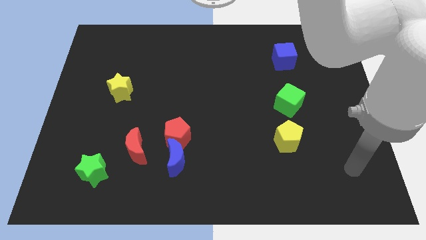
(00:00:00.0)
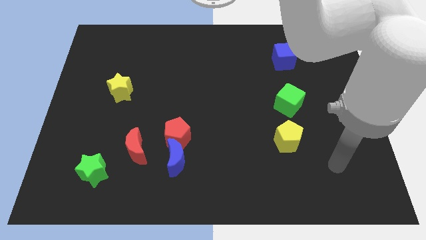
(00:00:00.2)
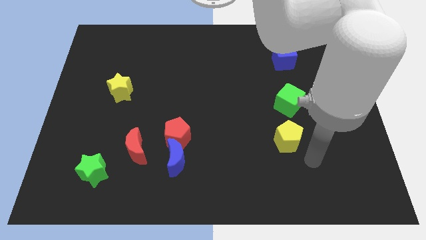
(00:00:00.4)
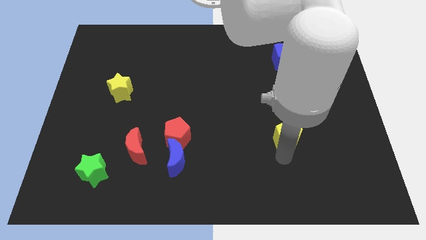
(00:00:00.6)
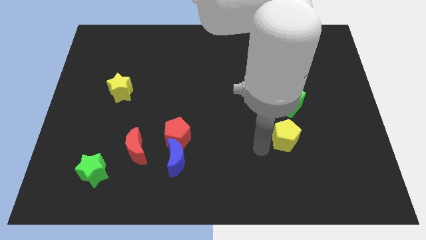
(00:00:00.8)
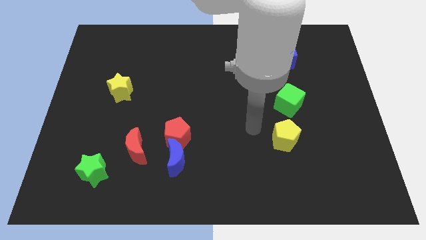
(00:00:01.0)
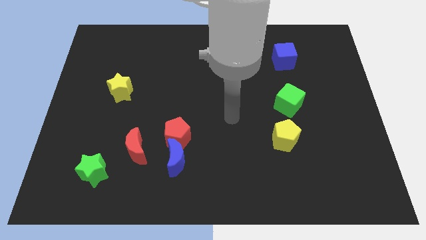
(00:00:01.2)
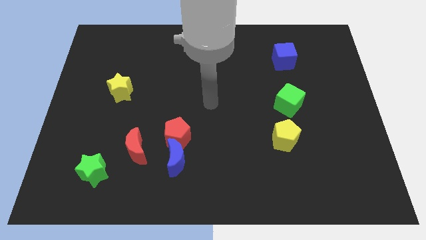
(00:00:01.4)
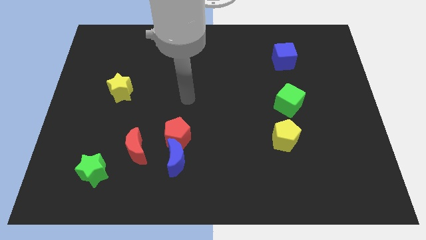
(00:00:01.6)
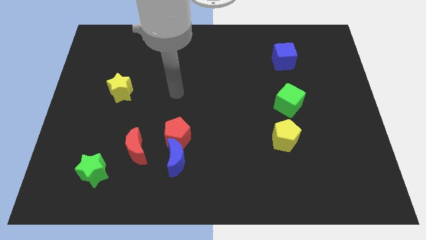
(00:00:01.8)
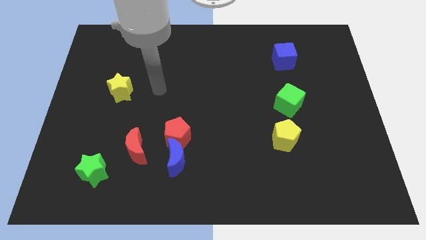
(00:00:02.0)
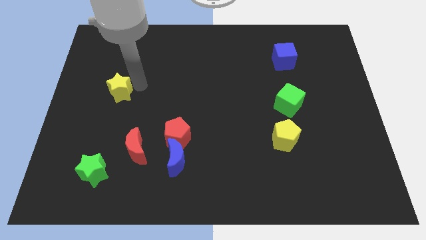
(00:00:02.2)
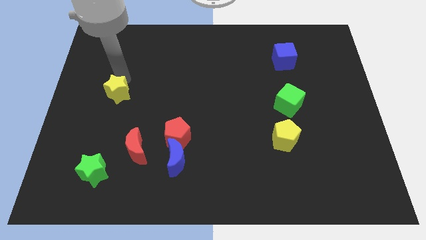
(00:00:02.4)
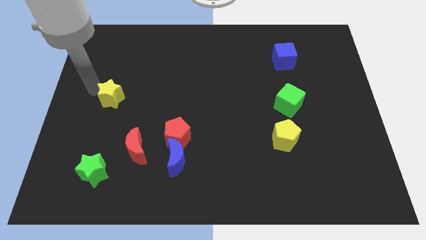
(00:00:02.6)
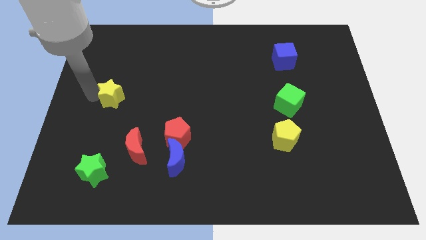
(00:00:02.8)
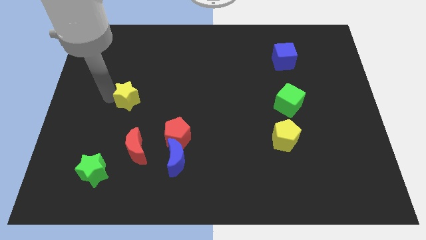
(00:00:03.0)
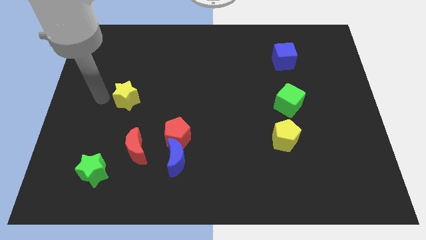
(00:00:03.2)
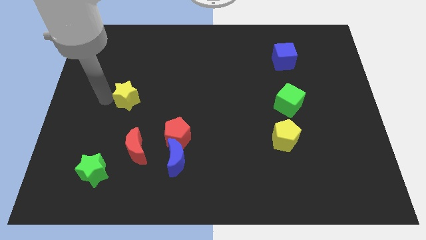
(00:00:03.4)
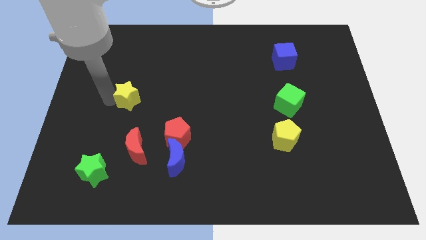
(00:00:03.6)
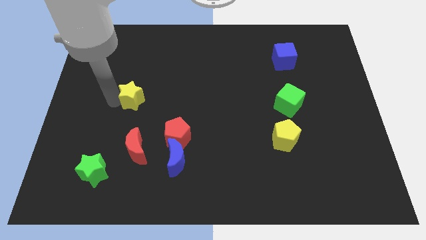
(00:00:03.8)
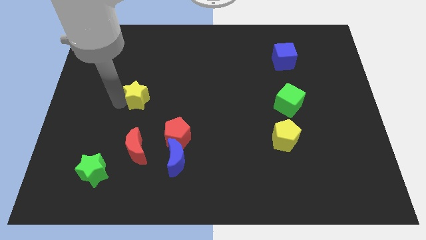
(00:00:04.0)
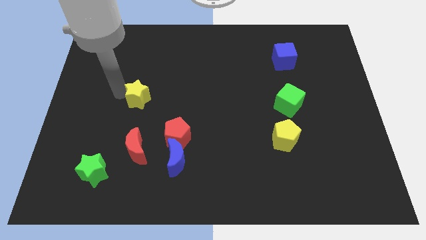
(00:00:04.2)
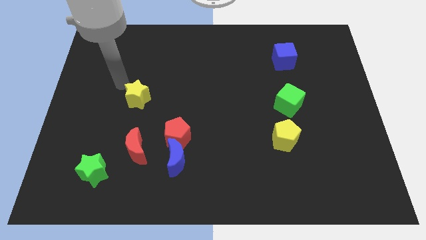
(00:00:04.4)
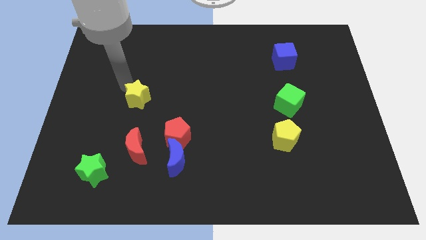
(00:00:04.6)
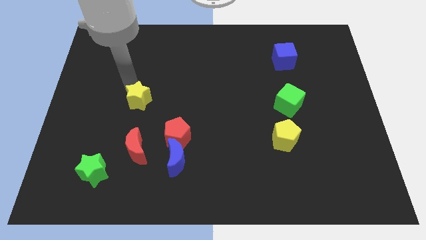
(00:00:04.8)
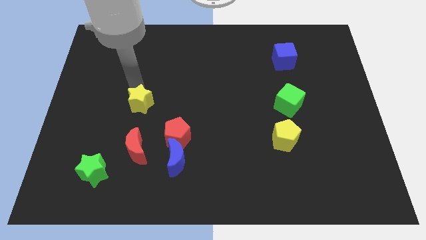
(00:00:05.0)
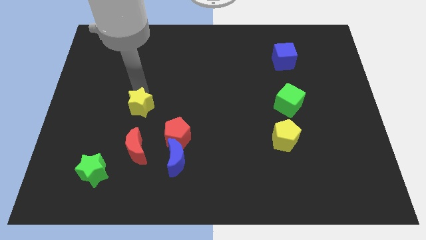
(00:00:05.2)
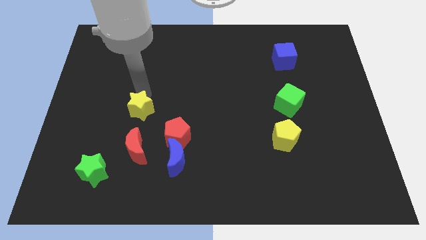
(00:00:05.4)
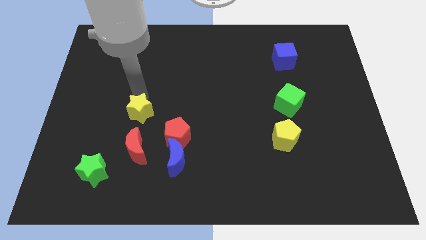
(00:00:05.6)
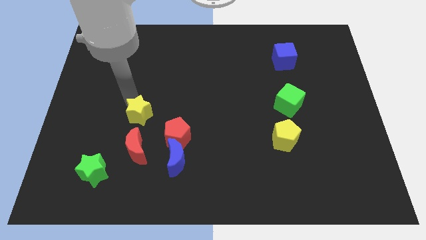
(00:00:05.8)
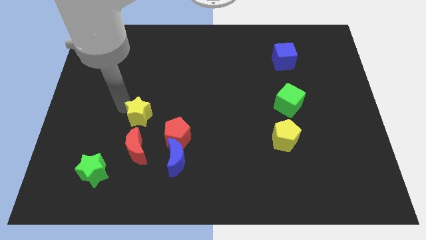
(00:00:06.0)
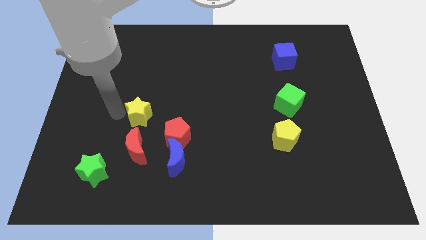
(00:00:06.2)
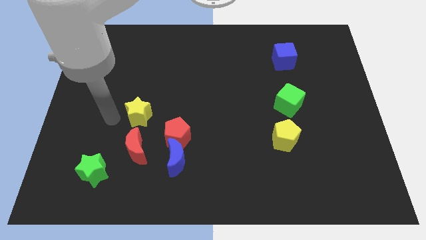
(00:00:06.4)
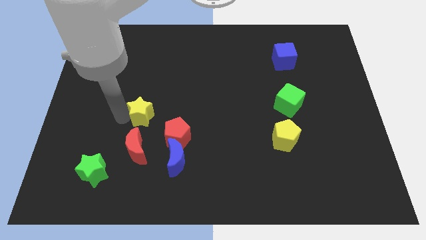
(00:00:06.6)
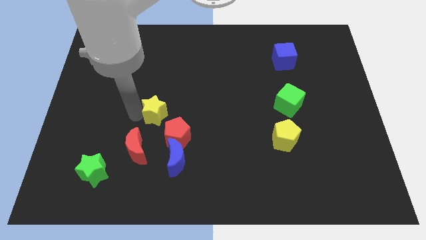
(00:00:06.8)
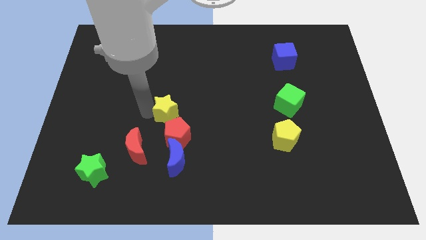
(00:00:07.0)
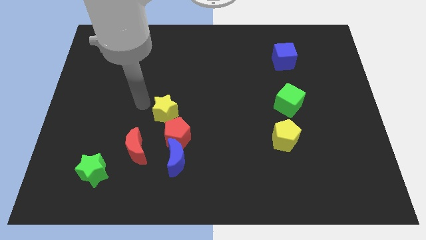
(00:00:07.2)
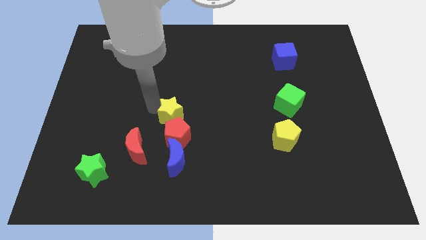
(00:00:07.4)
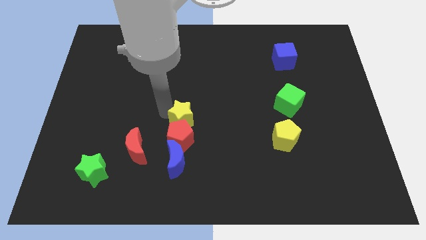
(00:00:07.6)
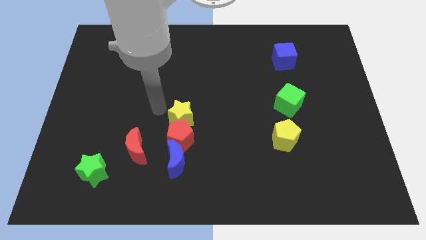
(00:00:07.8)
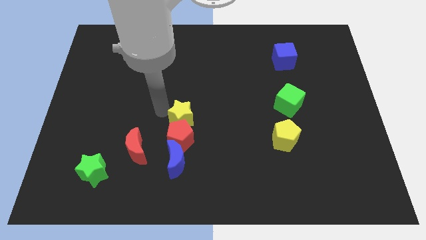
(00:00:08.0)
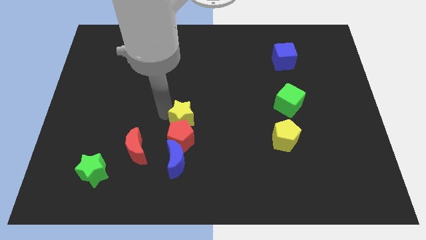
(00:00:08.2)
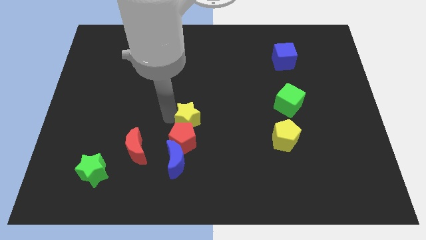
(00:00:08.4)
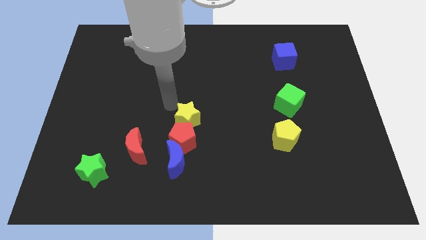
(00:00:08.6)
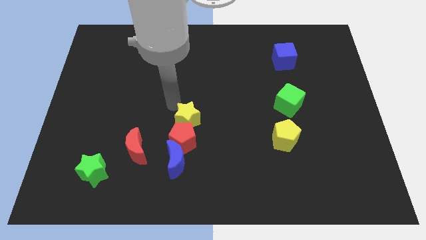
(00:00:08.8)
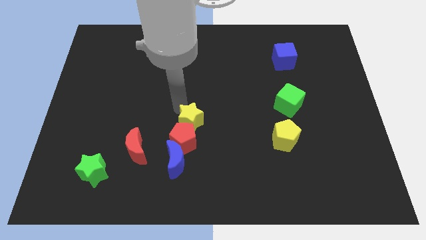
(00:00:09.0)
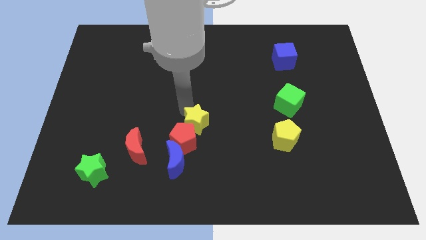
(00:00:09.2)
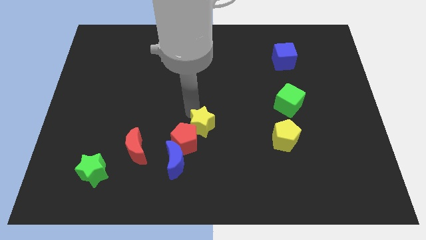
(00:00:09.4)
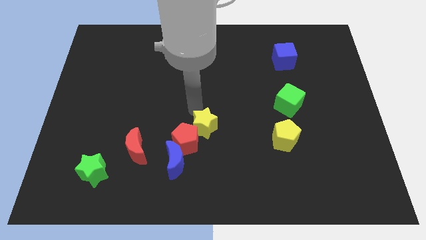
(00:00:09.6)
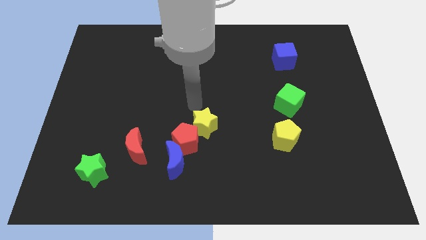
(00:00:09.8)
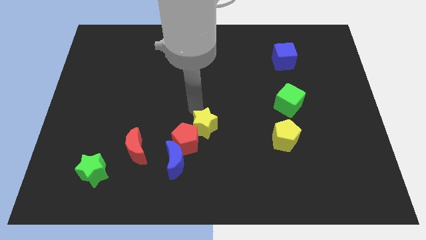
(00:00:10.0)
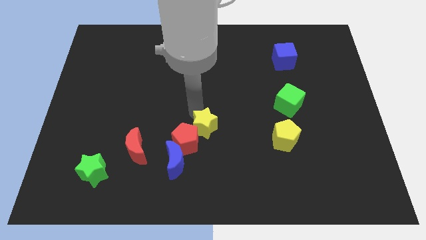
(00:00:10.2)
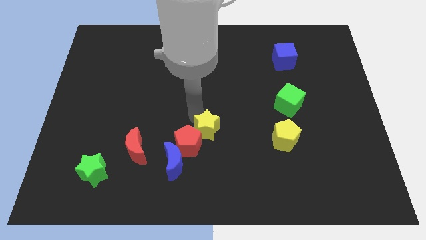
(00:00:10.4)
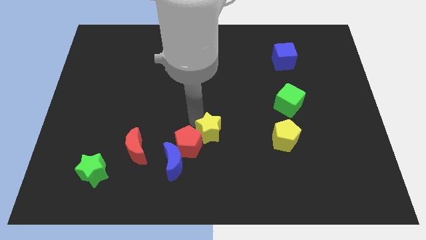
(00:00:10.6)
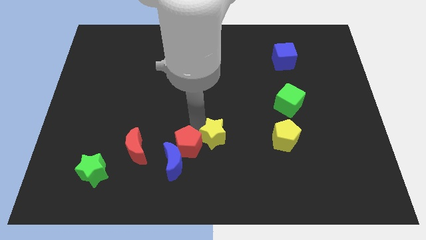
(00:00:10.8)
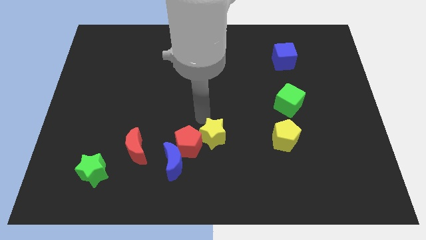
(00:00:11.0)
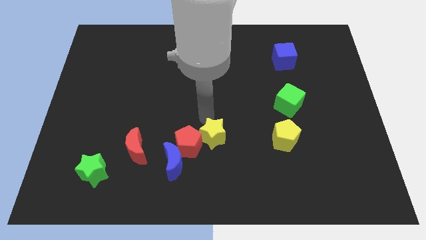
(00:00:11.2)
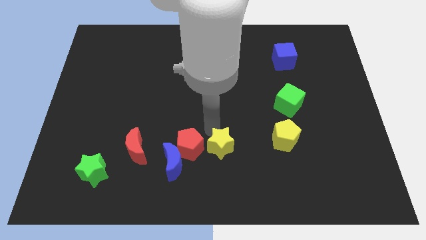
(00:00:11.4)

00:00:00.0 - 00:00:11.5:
push the yellow star right of the blue moon
